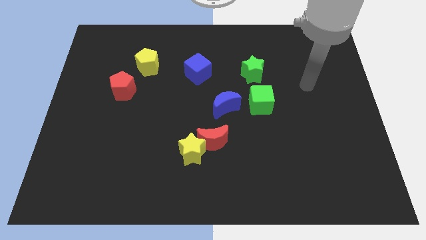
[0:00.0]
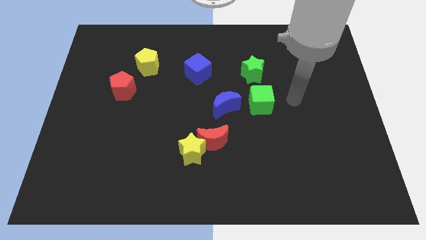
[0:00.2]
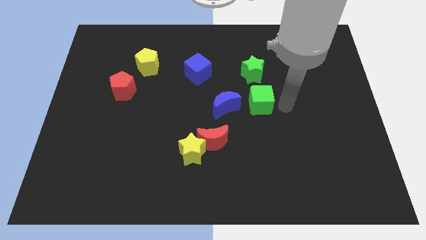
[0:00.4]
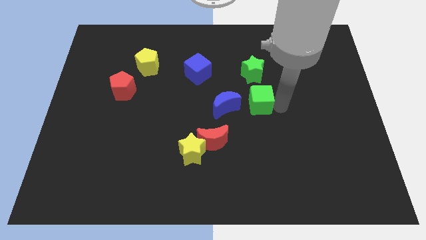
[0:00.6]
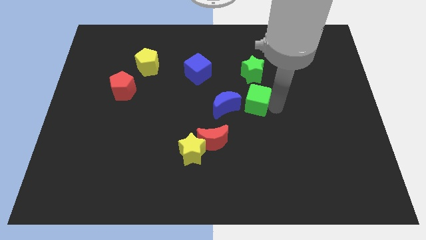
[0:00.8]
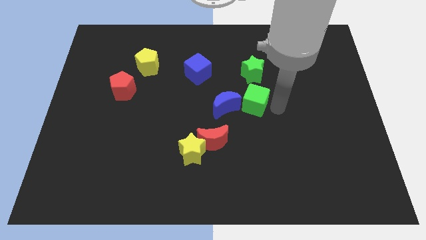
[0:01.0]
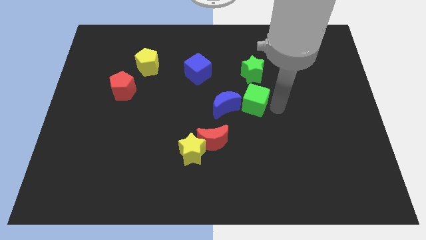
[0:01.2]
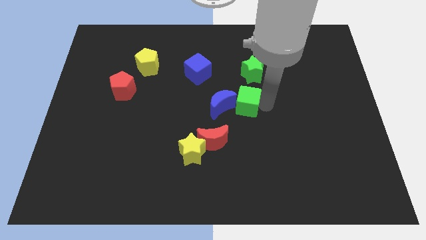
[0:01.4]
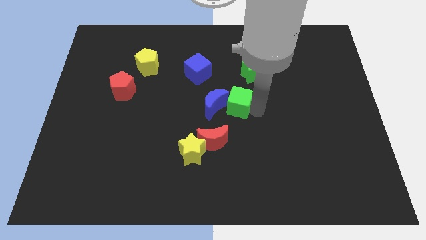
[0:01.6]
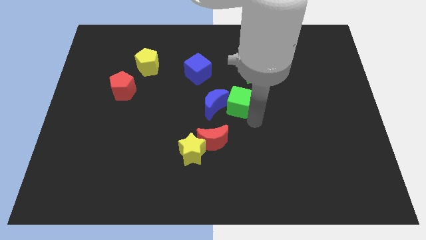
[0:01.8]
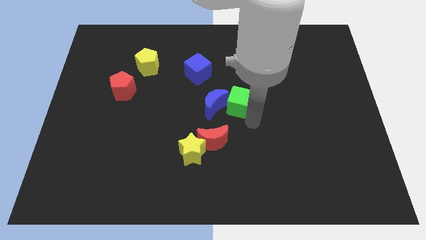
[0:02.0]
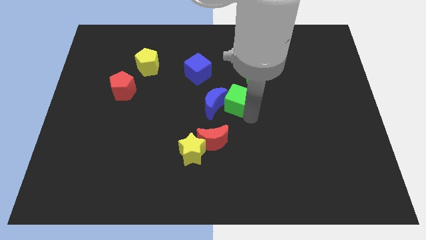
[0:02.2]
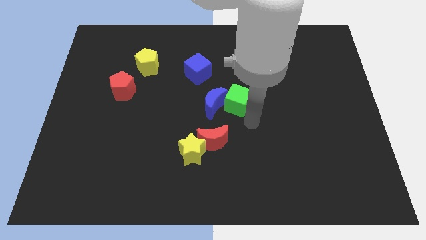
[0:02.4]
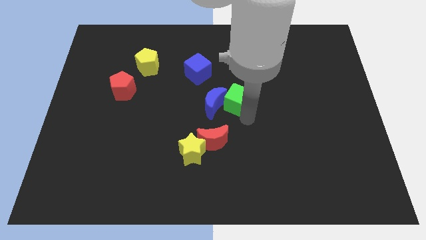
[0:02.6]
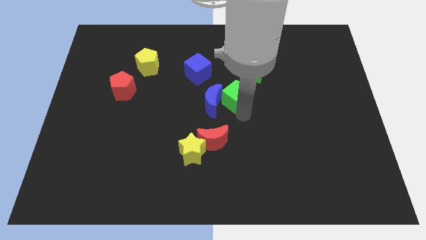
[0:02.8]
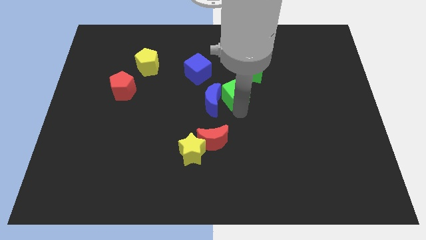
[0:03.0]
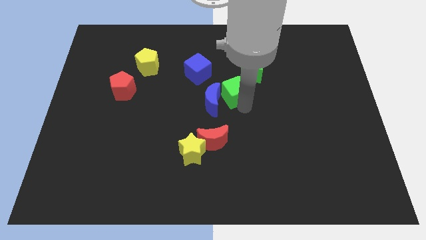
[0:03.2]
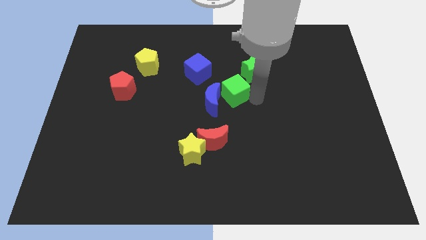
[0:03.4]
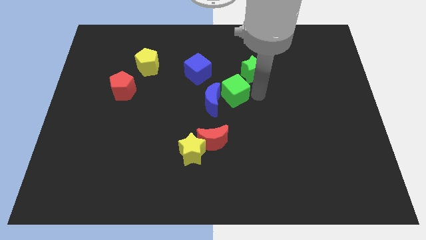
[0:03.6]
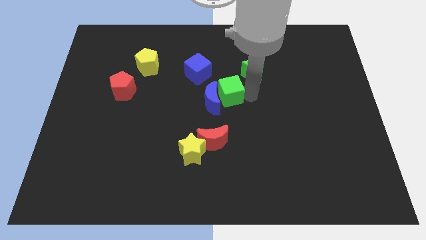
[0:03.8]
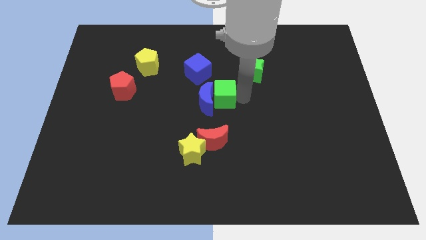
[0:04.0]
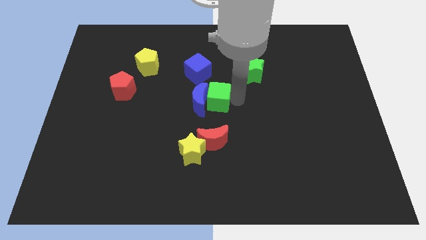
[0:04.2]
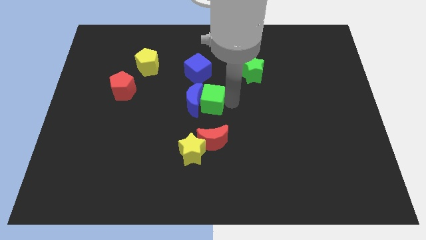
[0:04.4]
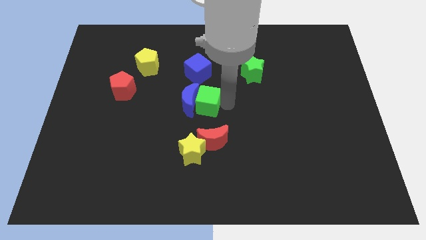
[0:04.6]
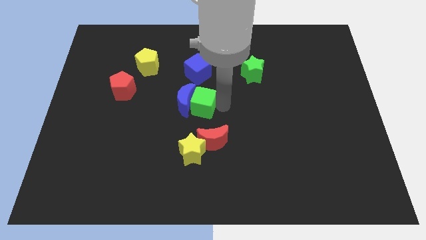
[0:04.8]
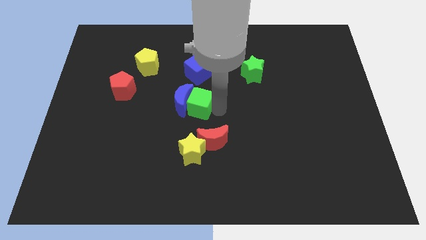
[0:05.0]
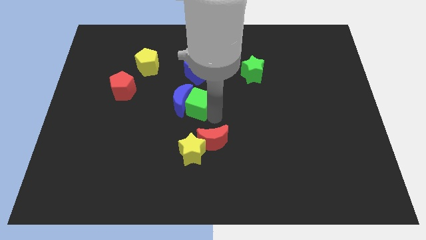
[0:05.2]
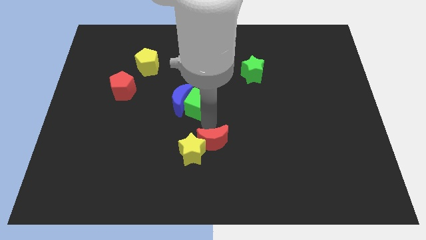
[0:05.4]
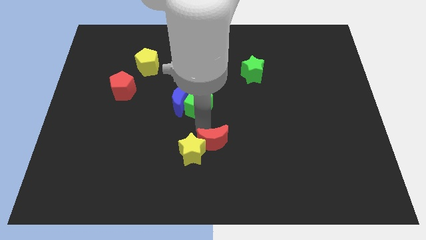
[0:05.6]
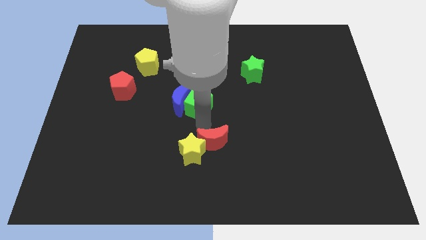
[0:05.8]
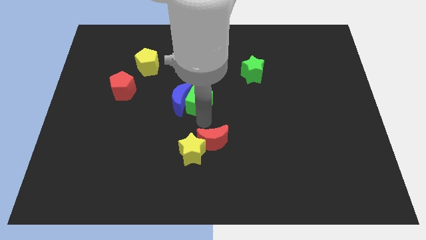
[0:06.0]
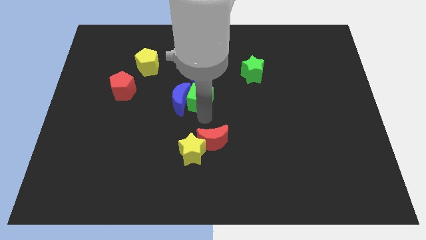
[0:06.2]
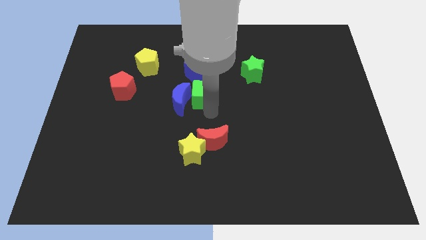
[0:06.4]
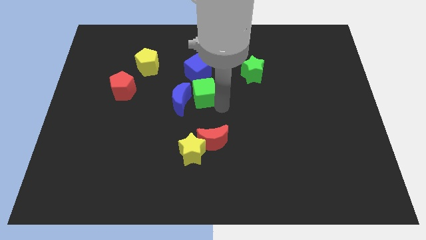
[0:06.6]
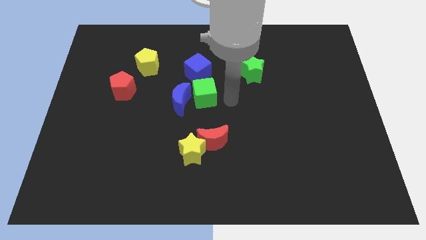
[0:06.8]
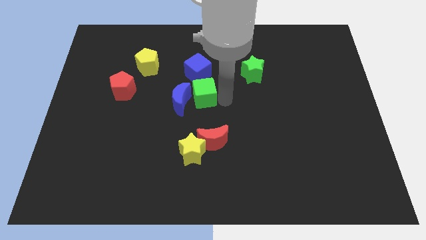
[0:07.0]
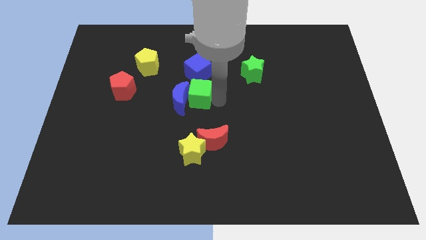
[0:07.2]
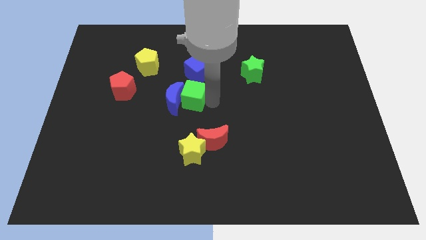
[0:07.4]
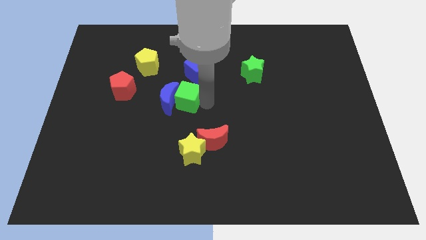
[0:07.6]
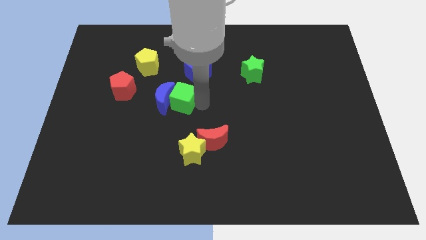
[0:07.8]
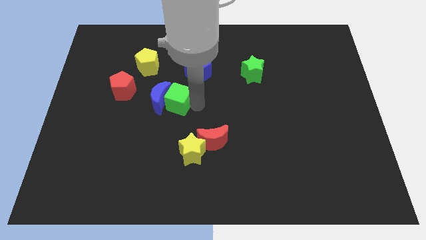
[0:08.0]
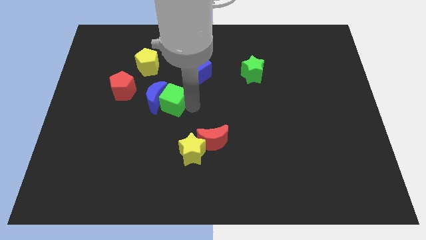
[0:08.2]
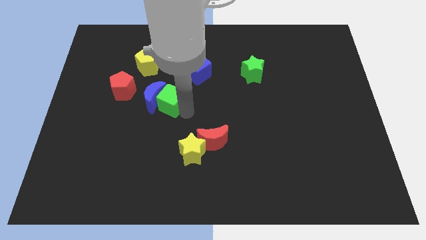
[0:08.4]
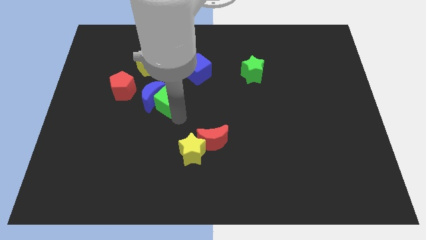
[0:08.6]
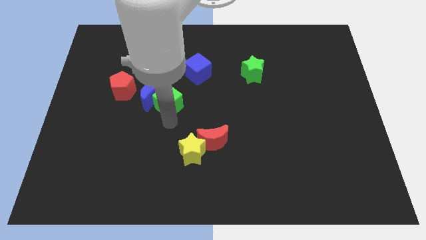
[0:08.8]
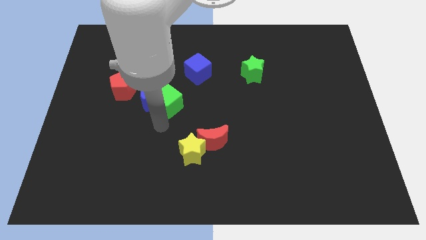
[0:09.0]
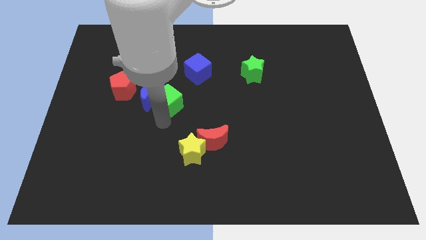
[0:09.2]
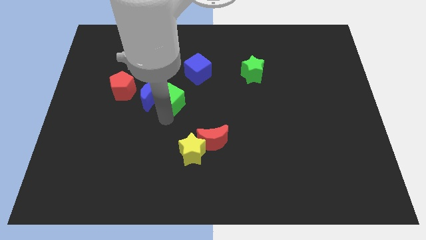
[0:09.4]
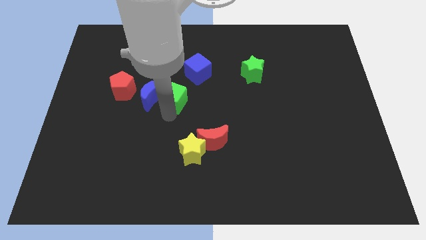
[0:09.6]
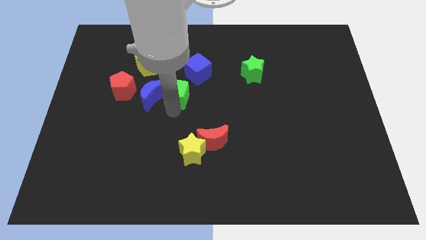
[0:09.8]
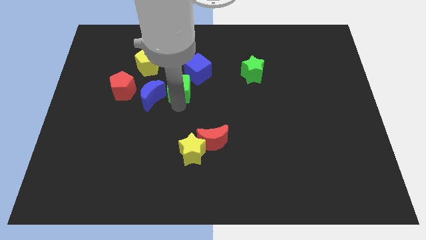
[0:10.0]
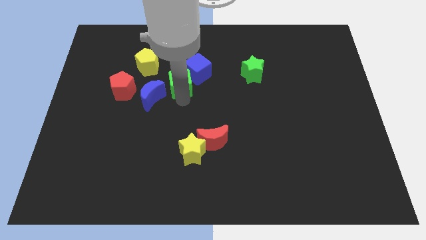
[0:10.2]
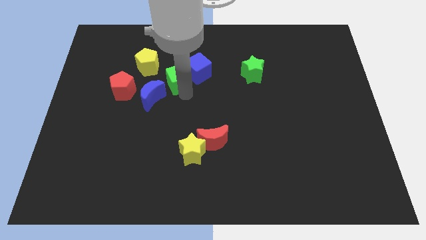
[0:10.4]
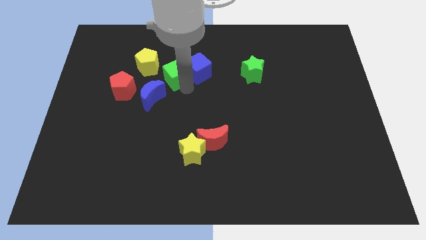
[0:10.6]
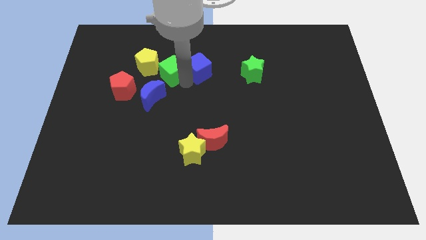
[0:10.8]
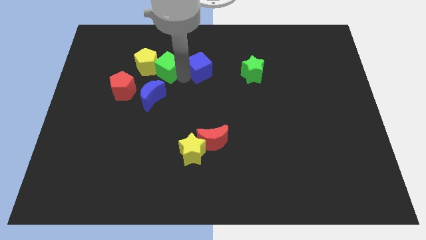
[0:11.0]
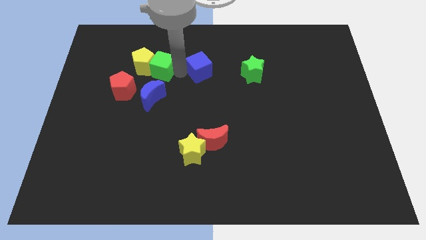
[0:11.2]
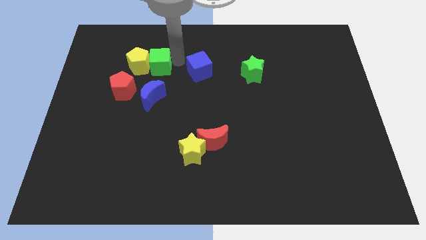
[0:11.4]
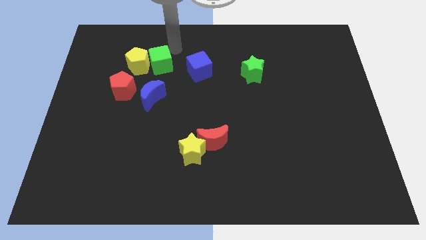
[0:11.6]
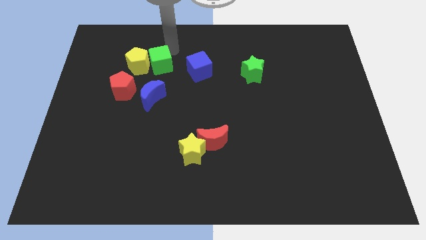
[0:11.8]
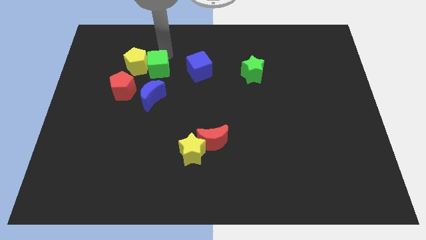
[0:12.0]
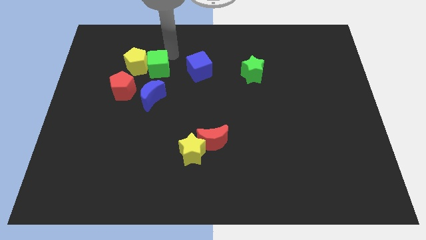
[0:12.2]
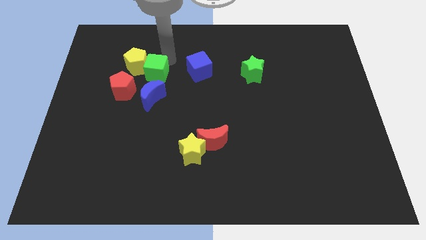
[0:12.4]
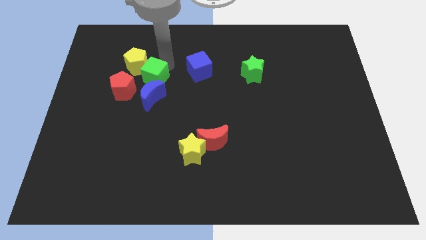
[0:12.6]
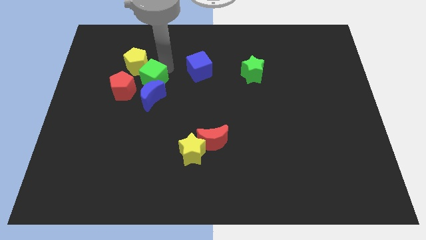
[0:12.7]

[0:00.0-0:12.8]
slide the green cube to the bottom of the yellow pentagon
